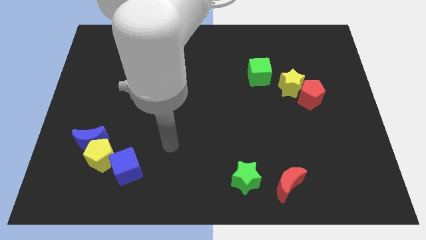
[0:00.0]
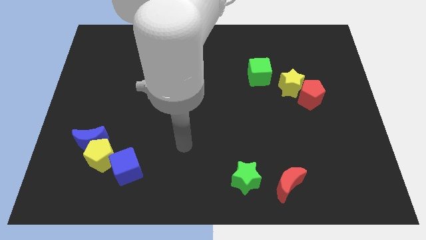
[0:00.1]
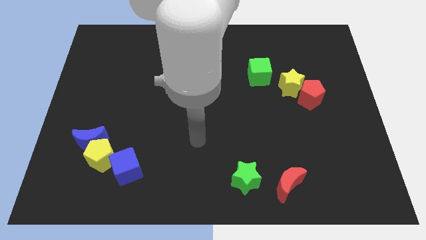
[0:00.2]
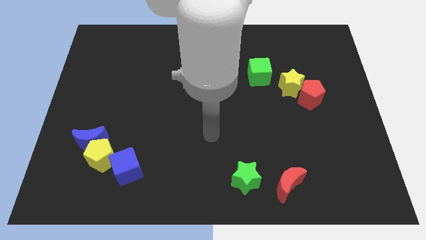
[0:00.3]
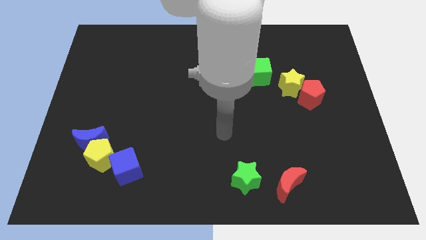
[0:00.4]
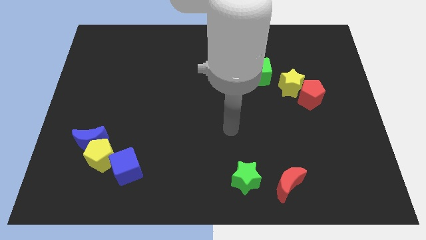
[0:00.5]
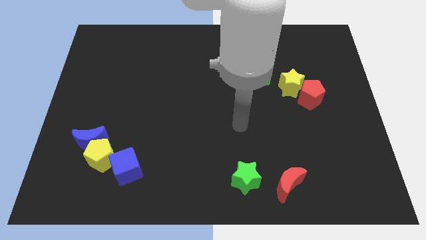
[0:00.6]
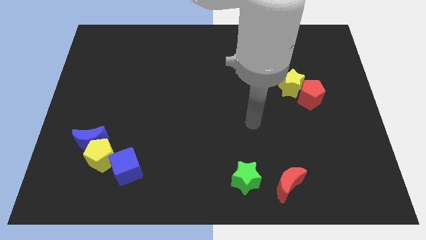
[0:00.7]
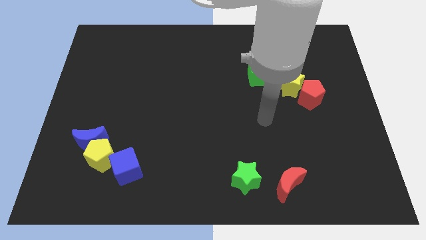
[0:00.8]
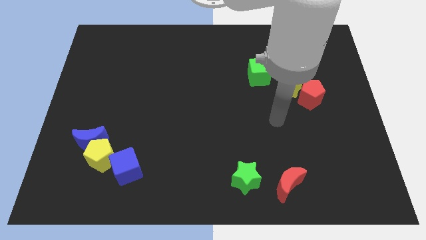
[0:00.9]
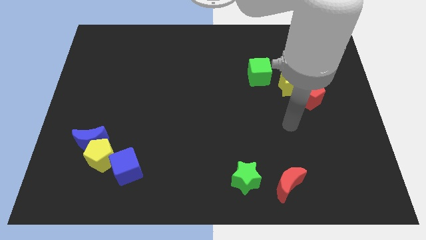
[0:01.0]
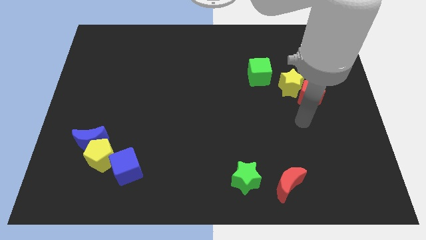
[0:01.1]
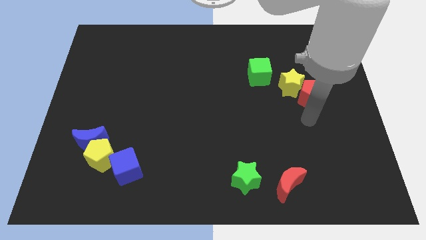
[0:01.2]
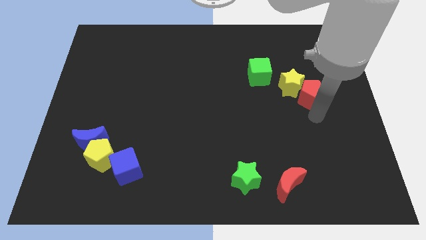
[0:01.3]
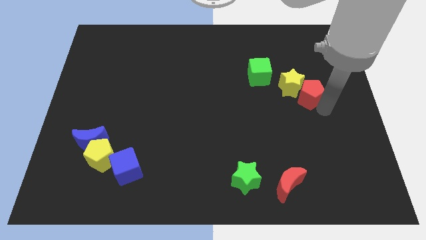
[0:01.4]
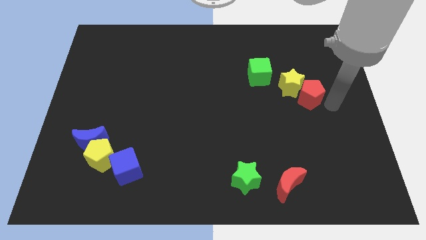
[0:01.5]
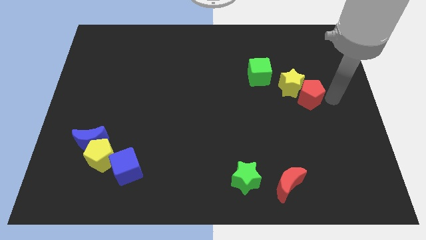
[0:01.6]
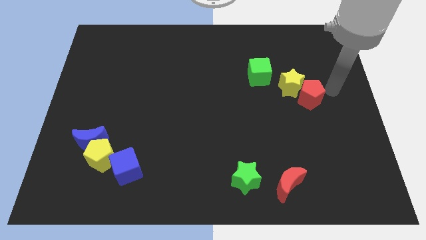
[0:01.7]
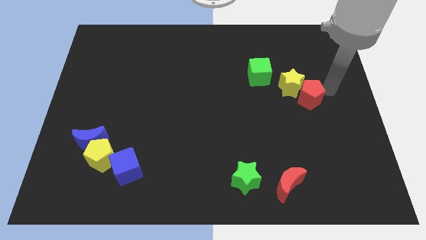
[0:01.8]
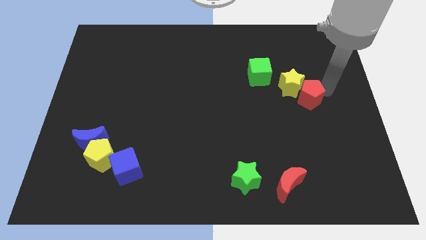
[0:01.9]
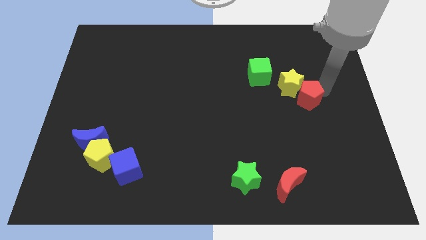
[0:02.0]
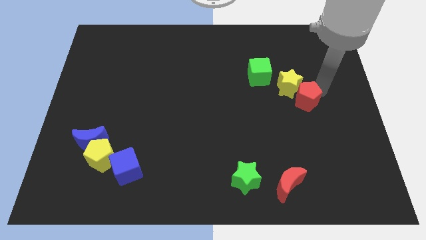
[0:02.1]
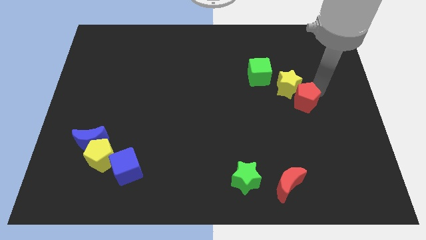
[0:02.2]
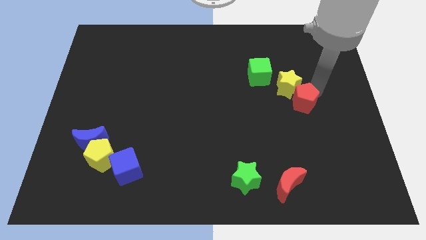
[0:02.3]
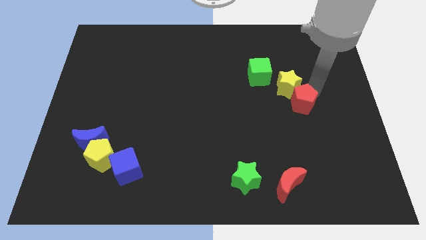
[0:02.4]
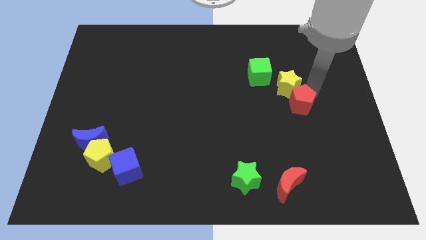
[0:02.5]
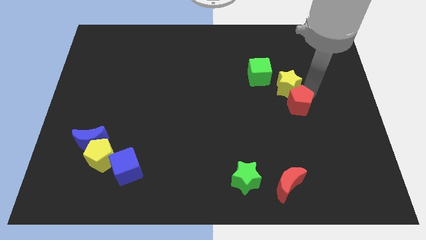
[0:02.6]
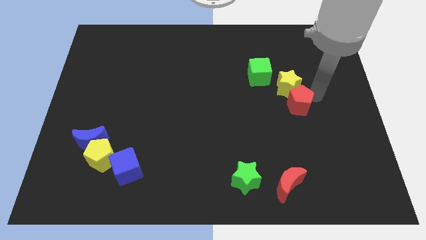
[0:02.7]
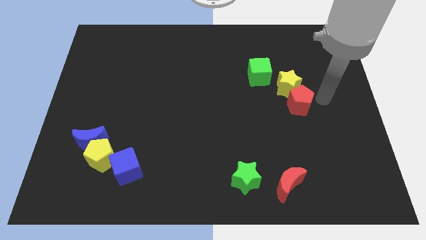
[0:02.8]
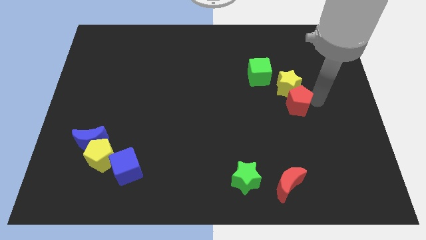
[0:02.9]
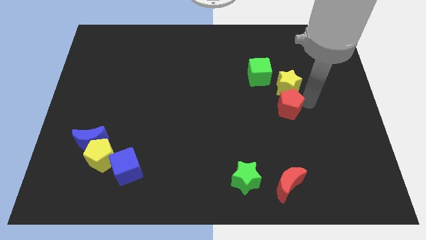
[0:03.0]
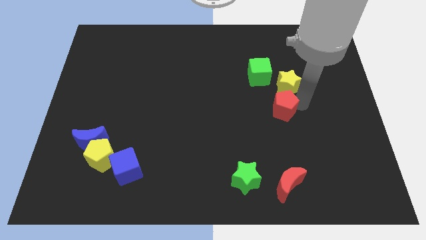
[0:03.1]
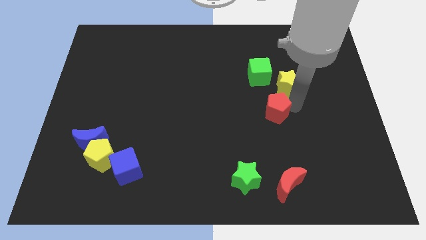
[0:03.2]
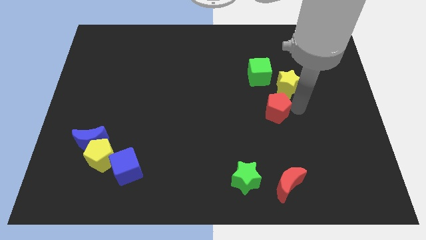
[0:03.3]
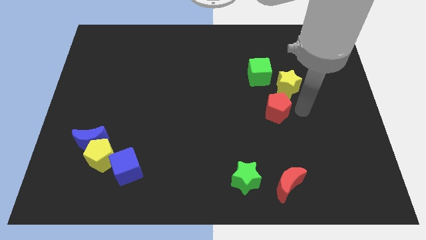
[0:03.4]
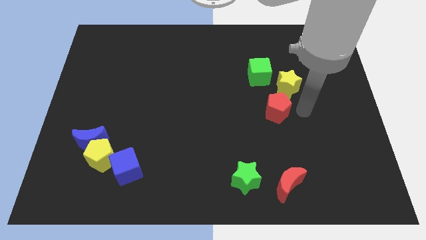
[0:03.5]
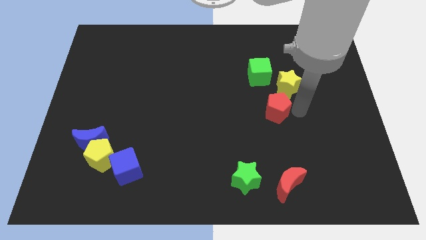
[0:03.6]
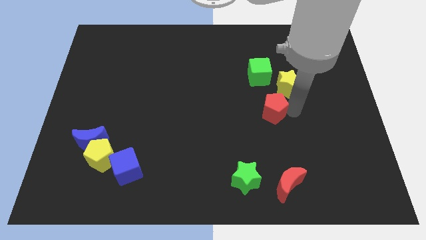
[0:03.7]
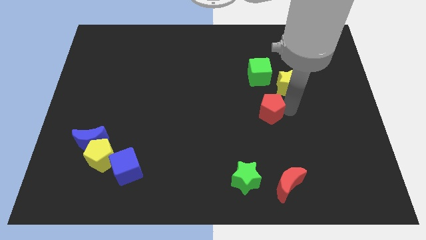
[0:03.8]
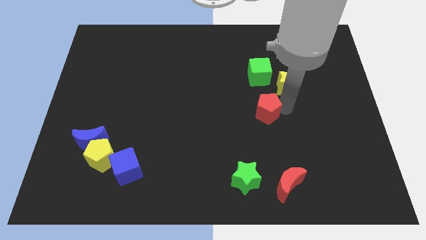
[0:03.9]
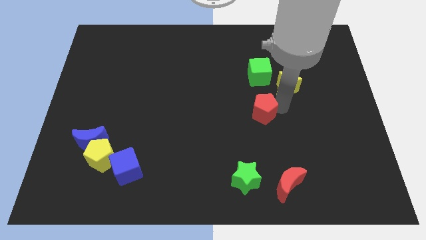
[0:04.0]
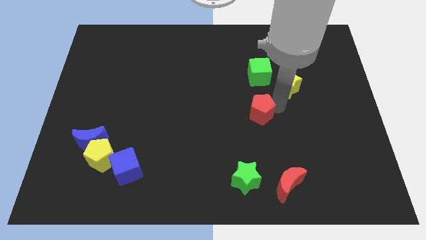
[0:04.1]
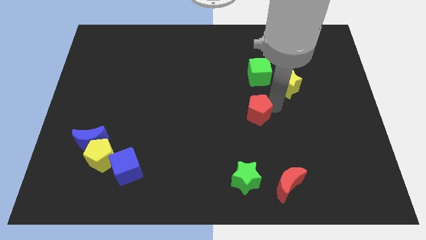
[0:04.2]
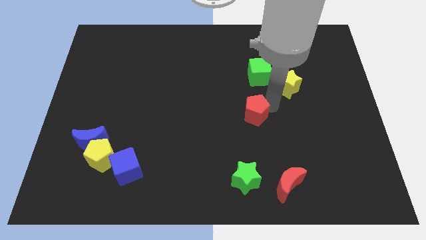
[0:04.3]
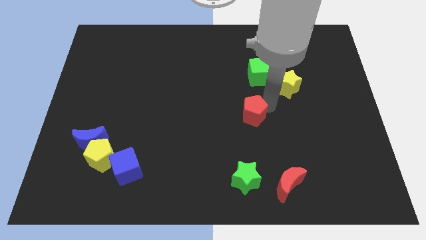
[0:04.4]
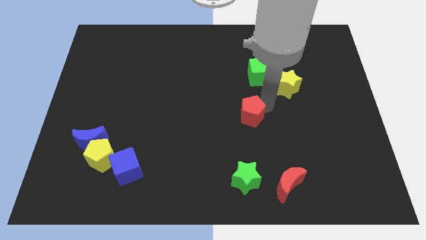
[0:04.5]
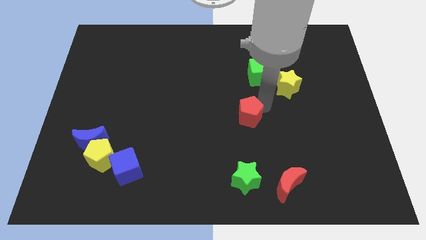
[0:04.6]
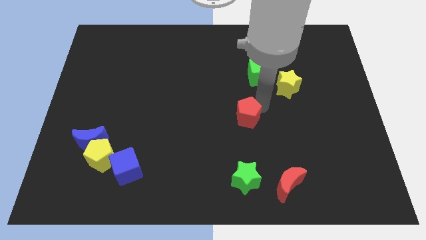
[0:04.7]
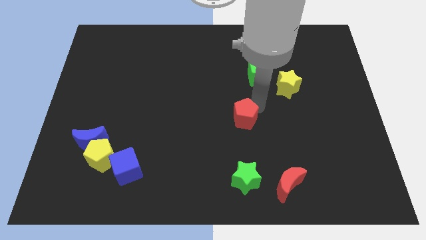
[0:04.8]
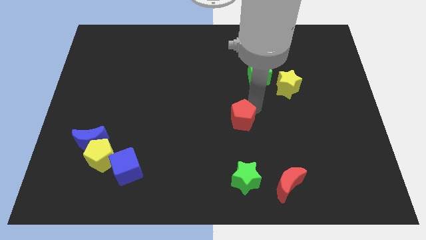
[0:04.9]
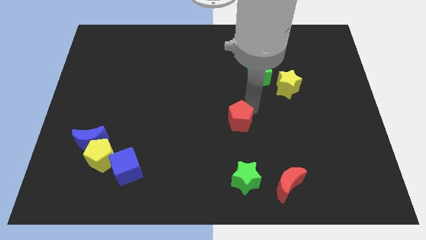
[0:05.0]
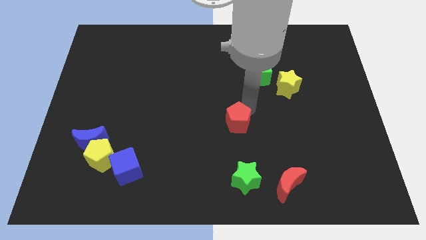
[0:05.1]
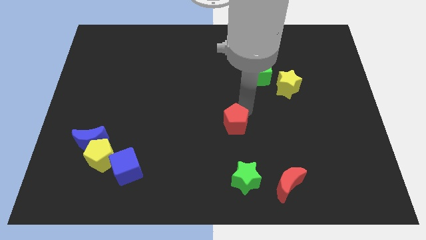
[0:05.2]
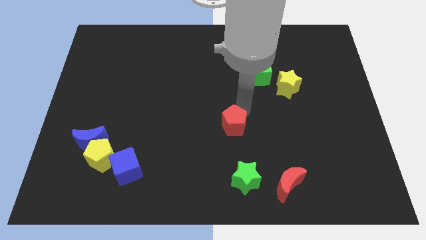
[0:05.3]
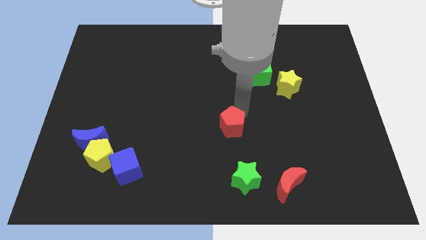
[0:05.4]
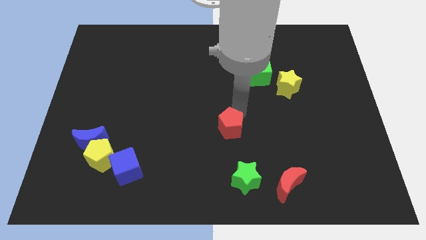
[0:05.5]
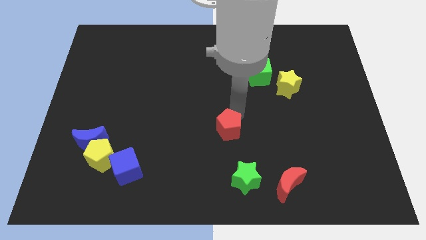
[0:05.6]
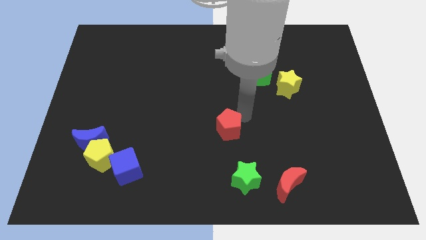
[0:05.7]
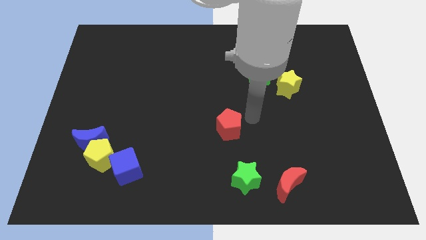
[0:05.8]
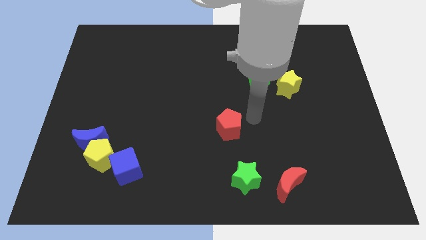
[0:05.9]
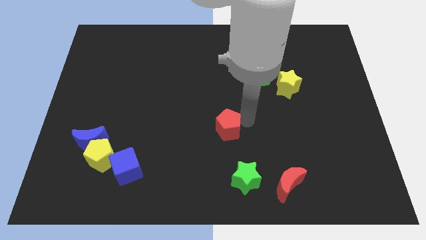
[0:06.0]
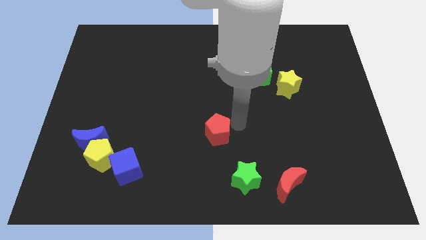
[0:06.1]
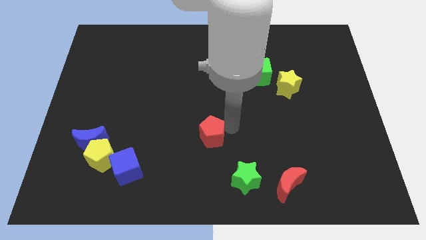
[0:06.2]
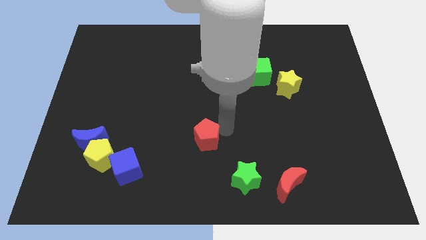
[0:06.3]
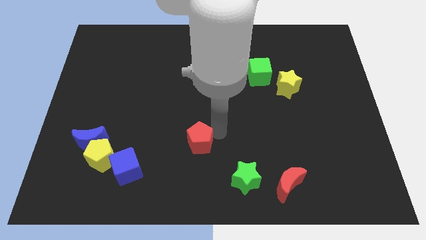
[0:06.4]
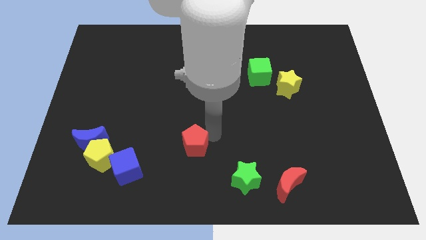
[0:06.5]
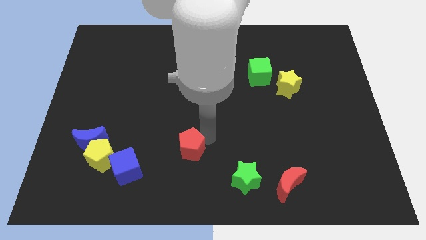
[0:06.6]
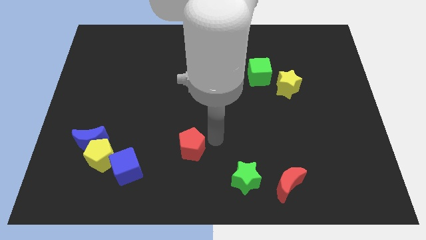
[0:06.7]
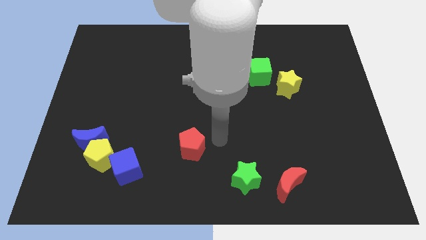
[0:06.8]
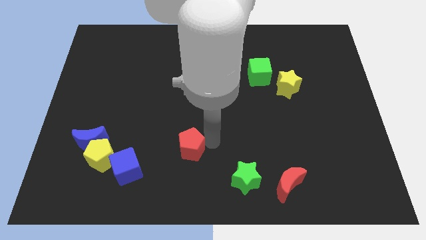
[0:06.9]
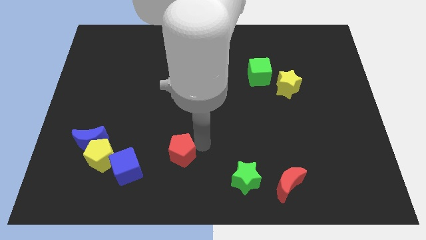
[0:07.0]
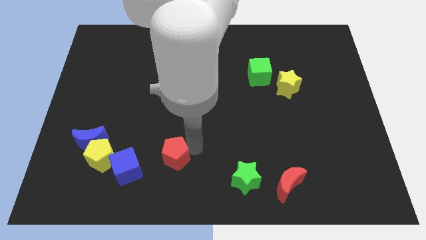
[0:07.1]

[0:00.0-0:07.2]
push the red pentagon to the right of the yellow pentagon
